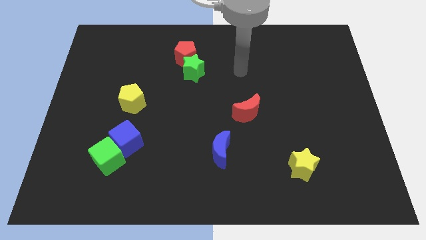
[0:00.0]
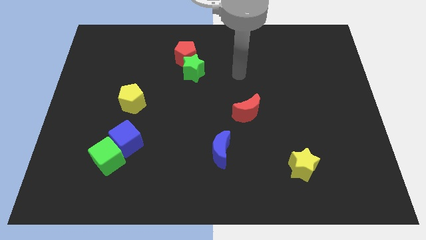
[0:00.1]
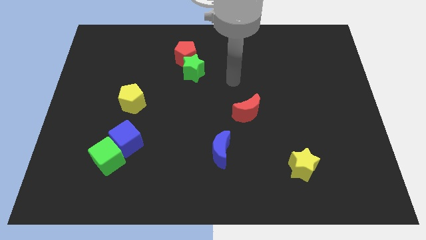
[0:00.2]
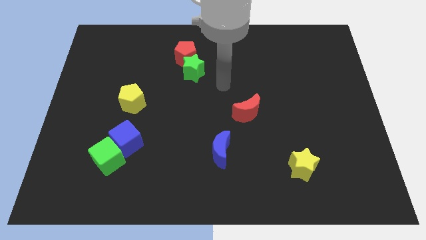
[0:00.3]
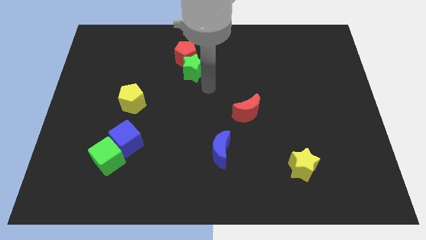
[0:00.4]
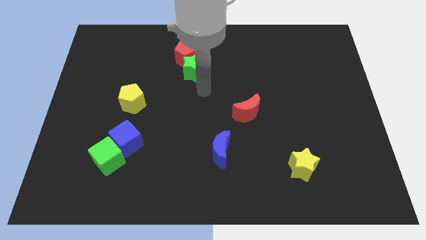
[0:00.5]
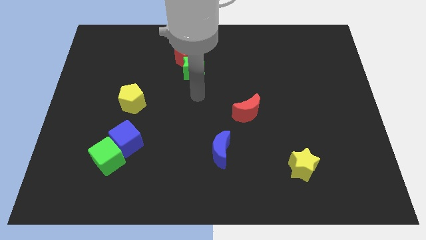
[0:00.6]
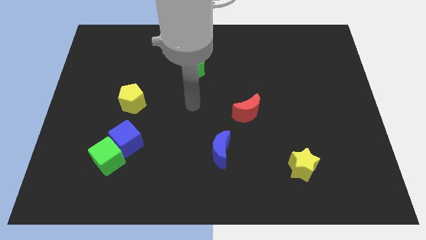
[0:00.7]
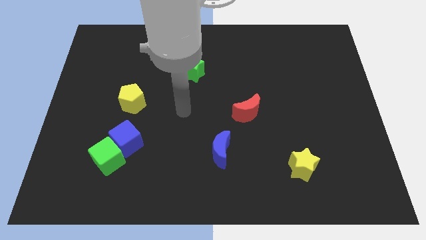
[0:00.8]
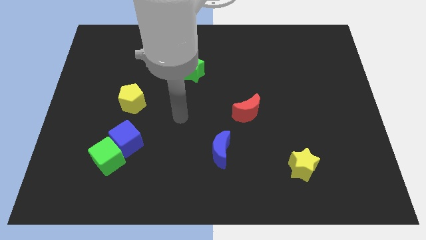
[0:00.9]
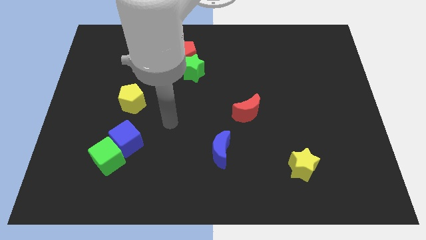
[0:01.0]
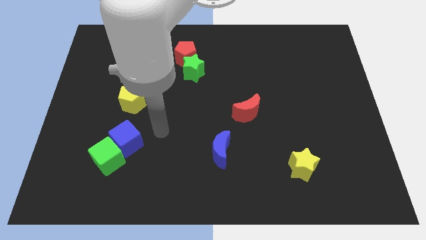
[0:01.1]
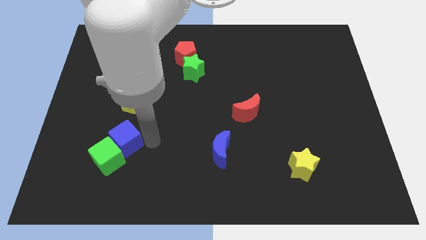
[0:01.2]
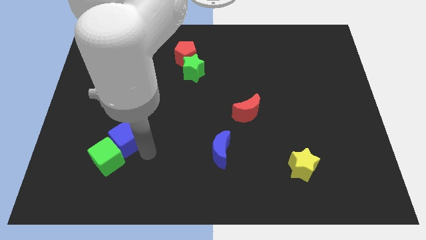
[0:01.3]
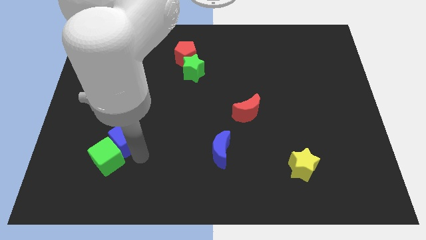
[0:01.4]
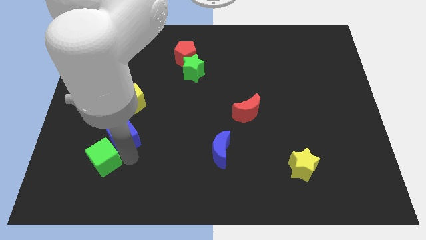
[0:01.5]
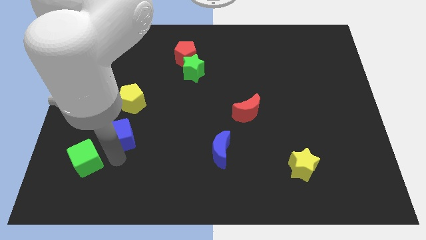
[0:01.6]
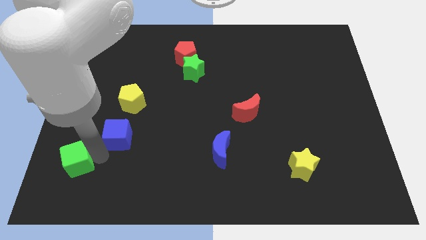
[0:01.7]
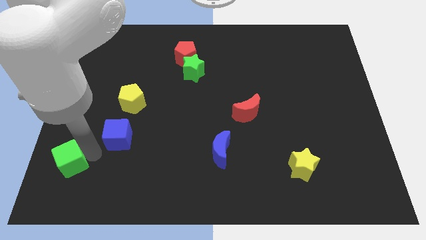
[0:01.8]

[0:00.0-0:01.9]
pull the blue cube apart from the green cube

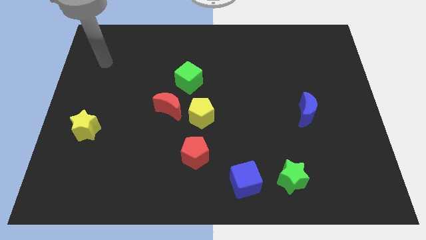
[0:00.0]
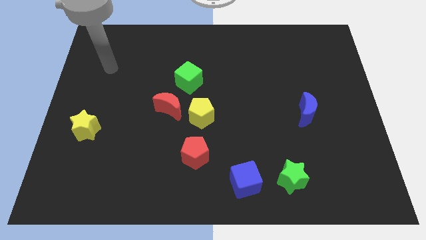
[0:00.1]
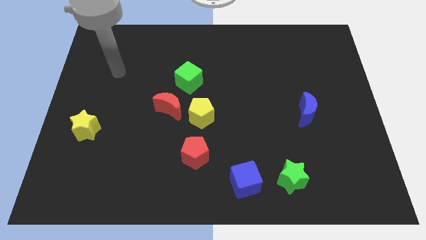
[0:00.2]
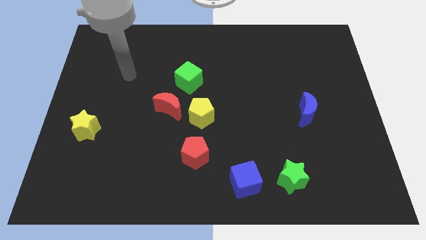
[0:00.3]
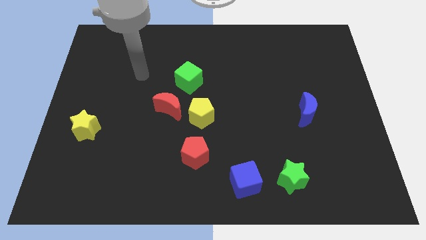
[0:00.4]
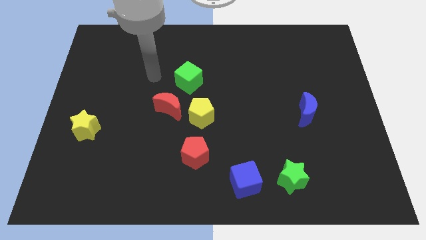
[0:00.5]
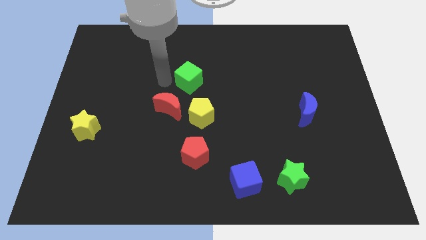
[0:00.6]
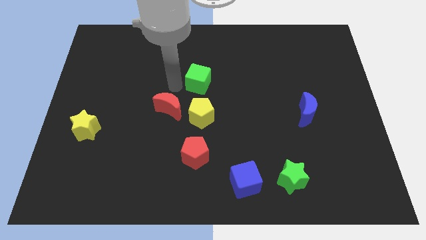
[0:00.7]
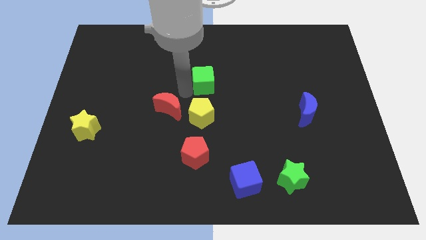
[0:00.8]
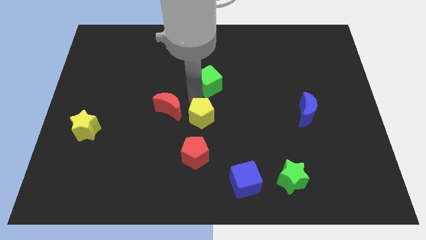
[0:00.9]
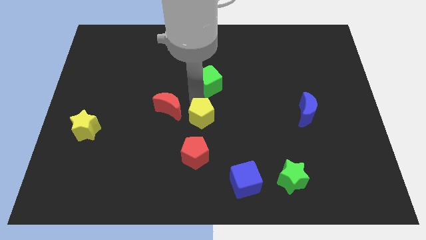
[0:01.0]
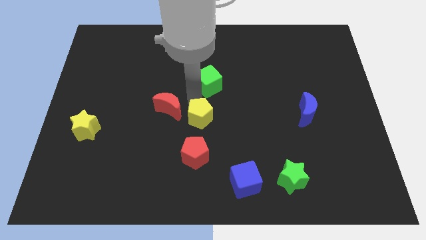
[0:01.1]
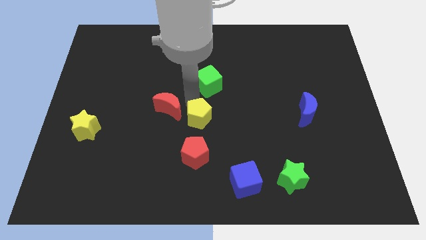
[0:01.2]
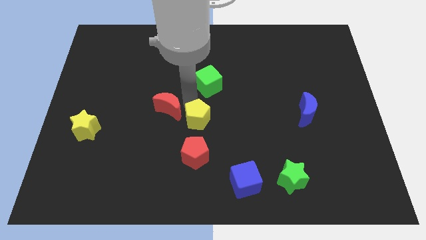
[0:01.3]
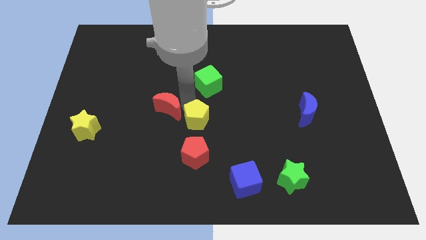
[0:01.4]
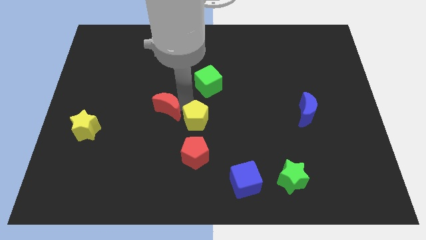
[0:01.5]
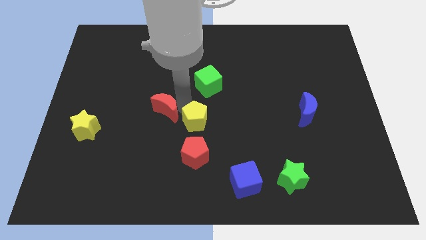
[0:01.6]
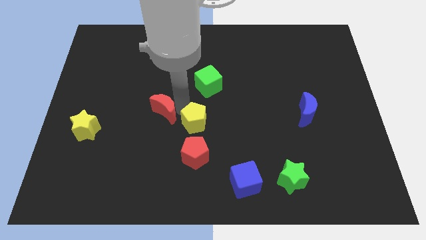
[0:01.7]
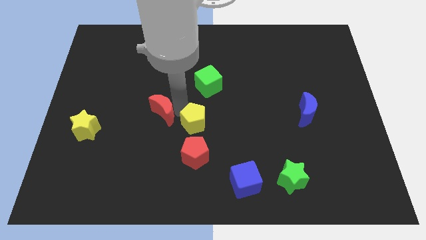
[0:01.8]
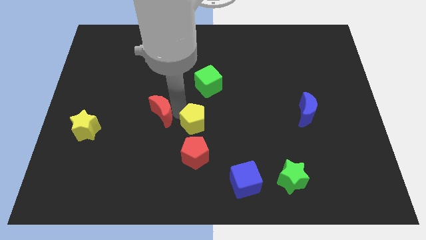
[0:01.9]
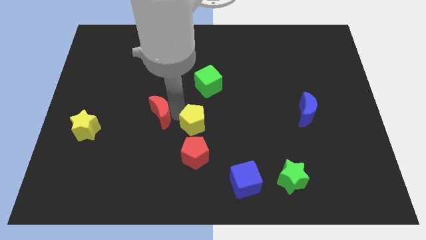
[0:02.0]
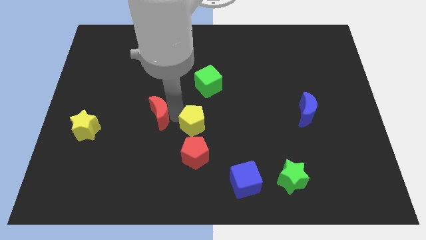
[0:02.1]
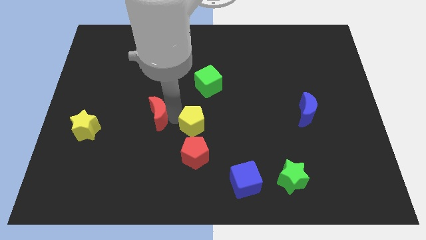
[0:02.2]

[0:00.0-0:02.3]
separate the red moon from the yellow pentagon and green cube

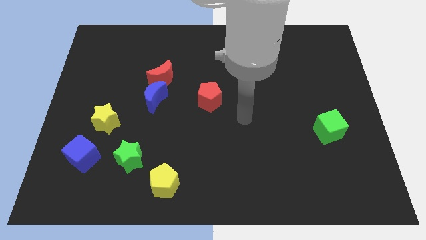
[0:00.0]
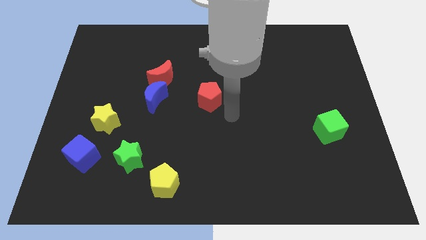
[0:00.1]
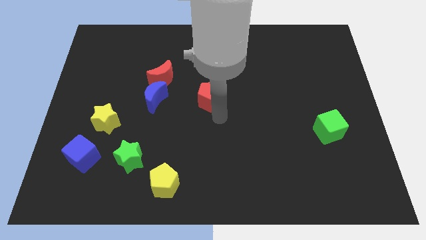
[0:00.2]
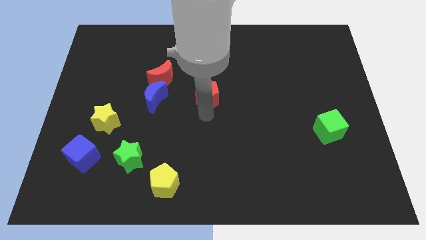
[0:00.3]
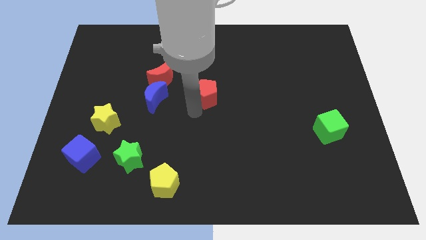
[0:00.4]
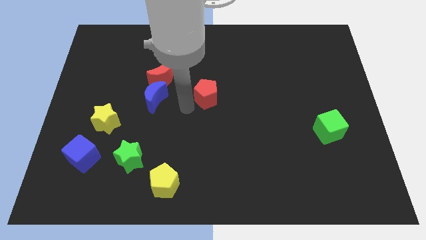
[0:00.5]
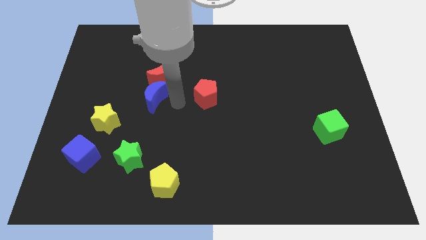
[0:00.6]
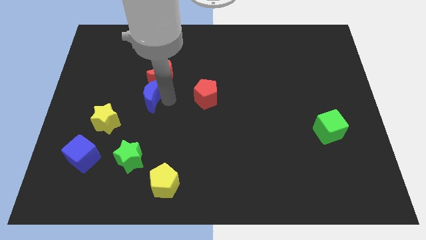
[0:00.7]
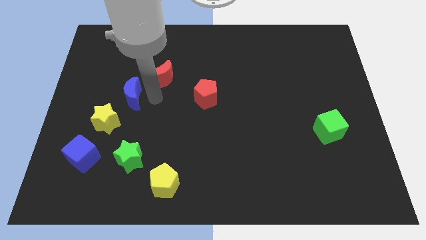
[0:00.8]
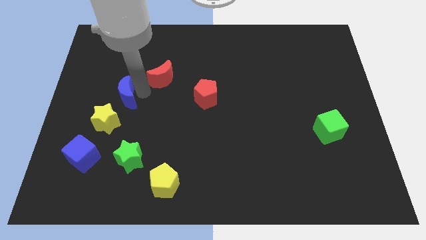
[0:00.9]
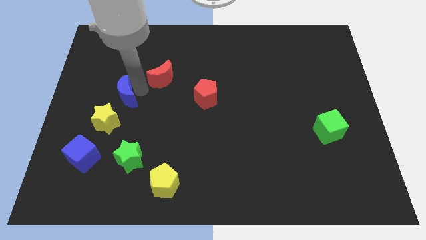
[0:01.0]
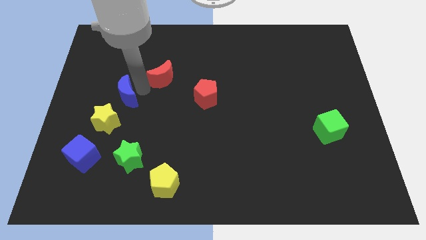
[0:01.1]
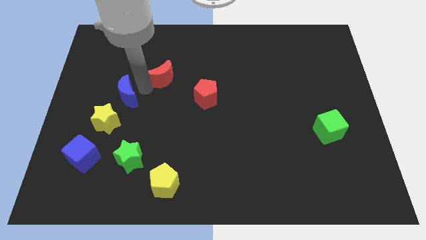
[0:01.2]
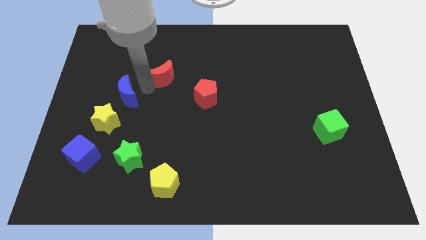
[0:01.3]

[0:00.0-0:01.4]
pull the red moon apart from the blue moon

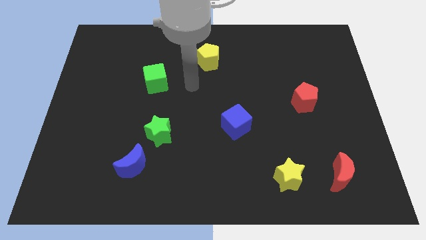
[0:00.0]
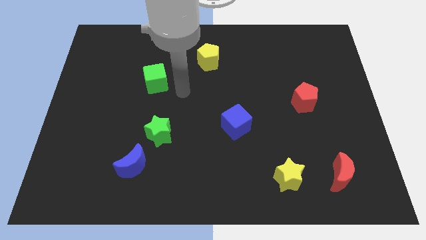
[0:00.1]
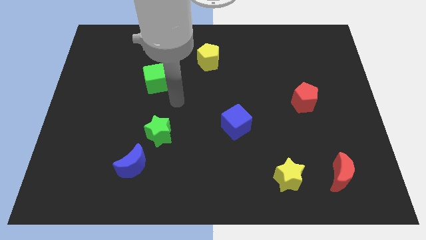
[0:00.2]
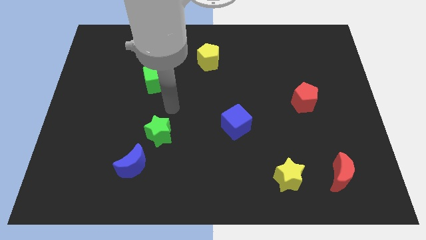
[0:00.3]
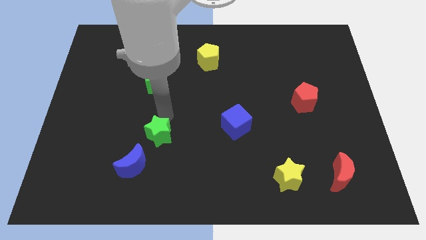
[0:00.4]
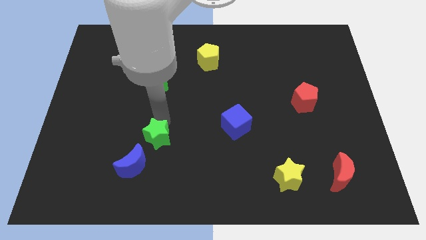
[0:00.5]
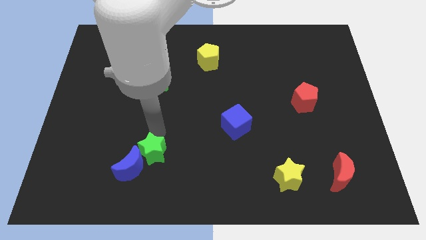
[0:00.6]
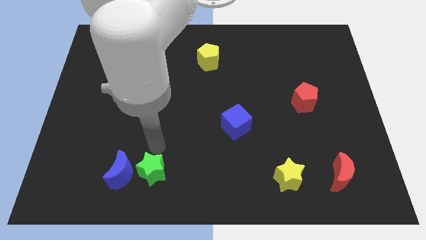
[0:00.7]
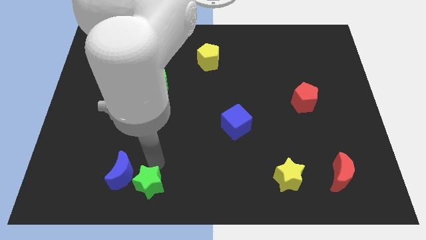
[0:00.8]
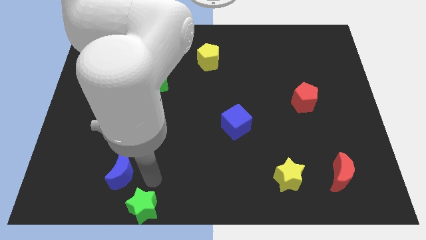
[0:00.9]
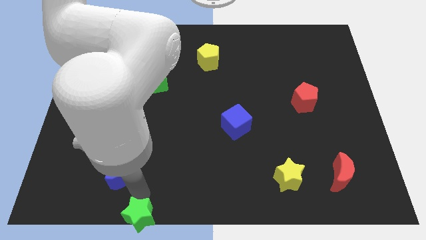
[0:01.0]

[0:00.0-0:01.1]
move the blue moon away from the green star

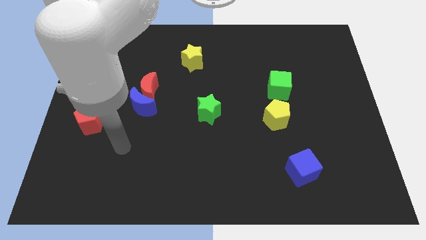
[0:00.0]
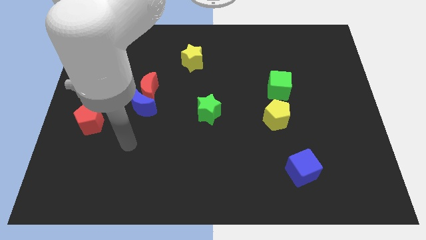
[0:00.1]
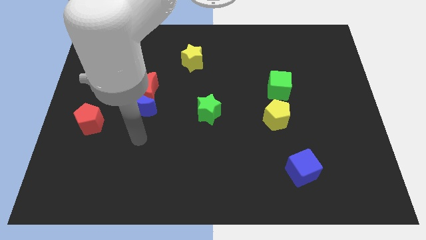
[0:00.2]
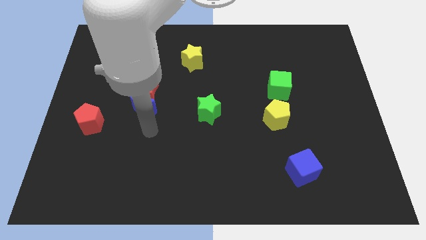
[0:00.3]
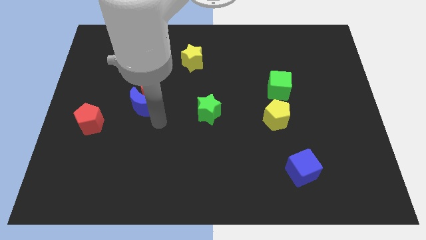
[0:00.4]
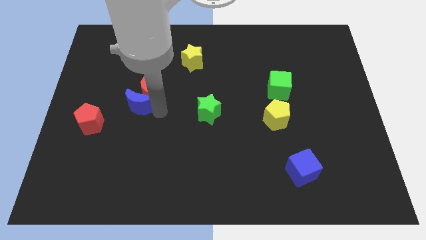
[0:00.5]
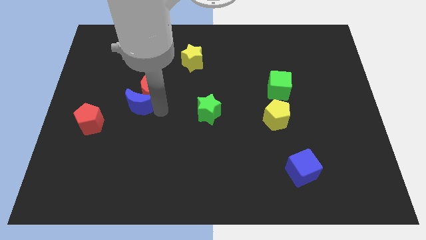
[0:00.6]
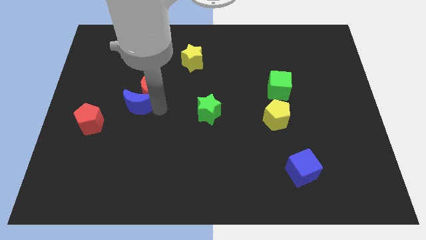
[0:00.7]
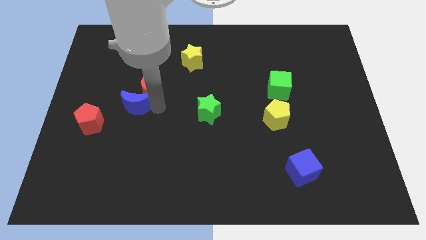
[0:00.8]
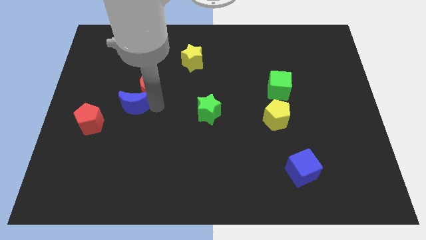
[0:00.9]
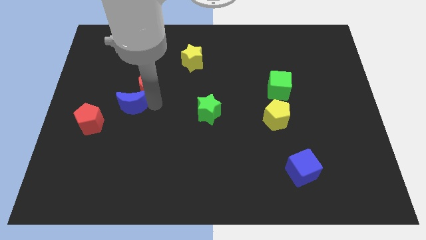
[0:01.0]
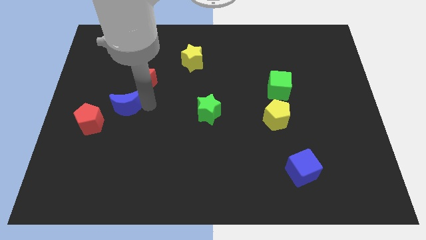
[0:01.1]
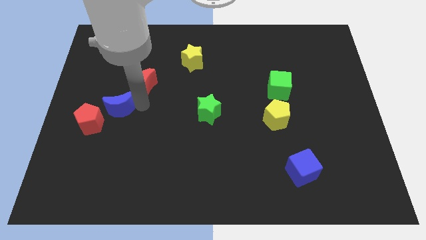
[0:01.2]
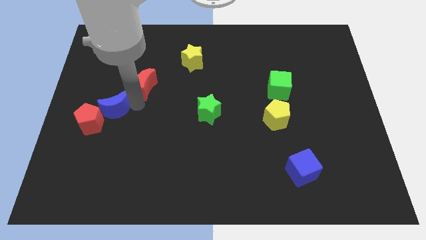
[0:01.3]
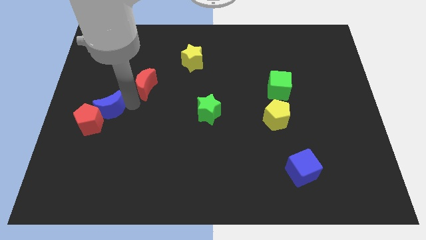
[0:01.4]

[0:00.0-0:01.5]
separate the red moon from the blue moon

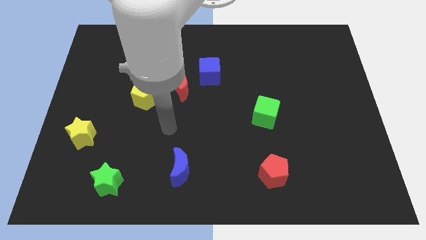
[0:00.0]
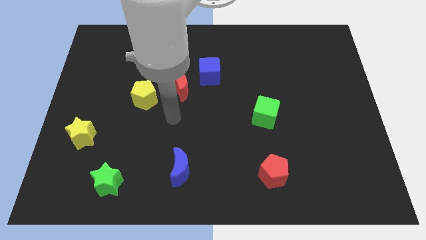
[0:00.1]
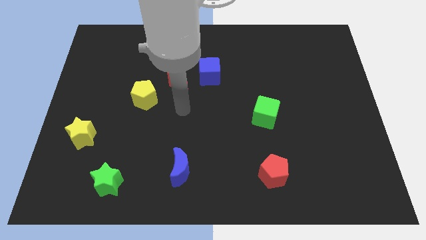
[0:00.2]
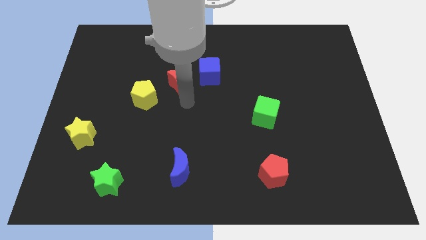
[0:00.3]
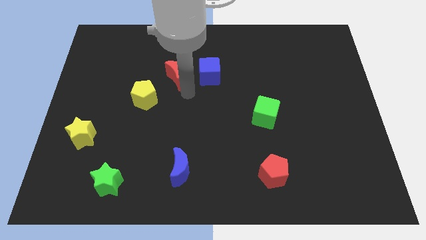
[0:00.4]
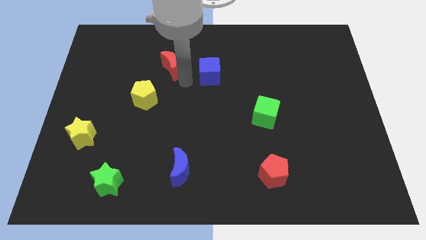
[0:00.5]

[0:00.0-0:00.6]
separate the blue cube from the red moon

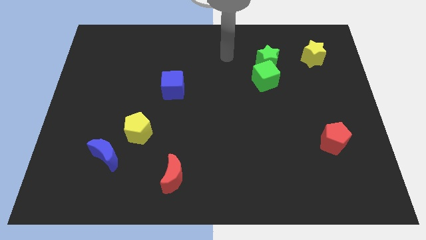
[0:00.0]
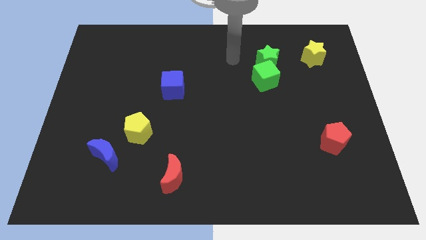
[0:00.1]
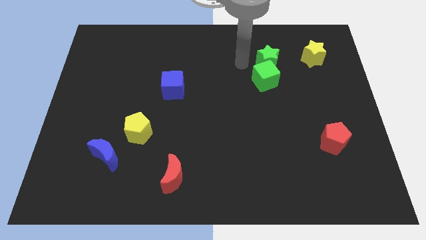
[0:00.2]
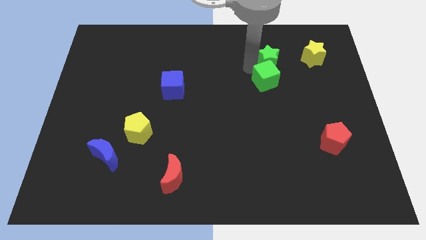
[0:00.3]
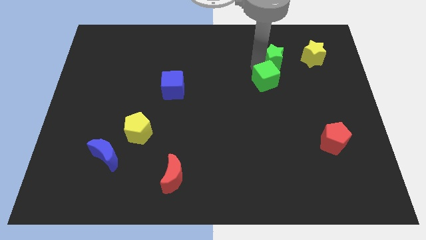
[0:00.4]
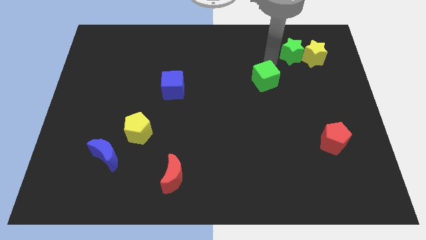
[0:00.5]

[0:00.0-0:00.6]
pull the green cube apart from the green star
